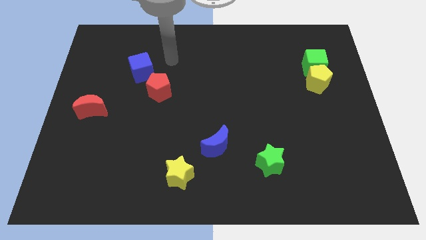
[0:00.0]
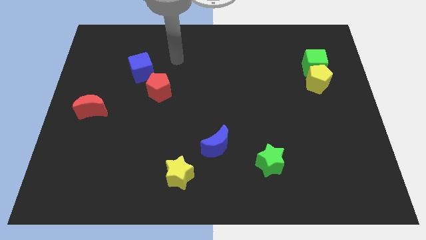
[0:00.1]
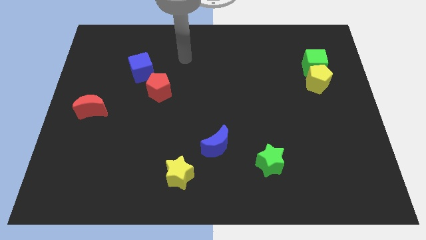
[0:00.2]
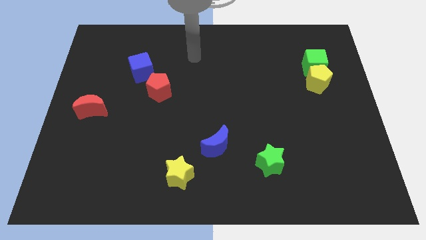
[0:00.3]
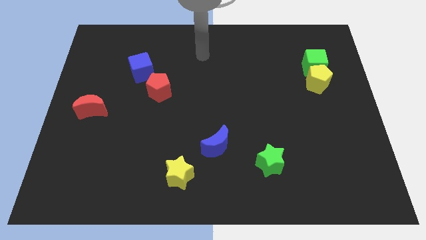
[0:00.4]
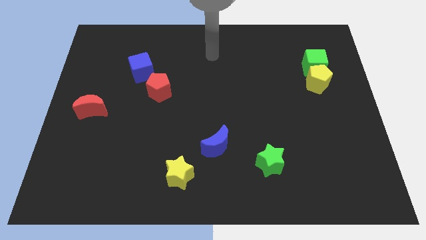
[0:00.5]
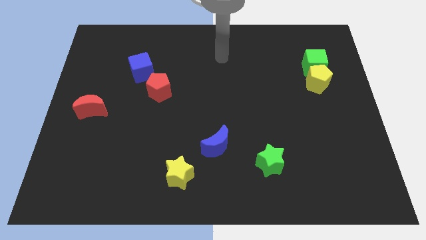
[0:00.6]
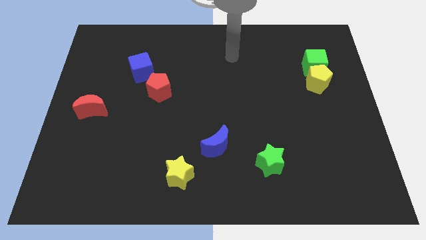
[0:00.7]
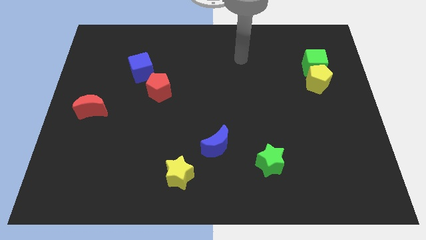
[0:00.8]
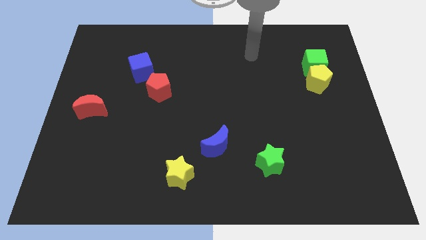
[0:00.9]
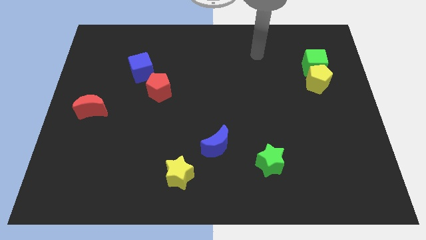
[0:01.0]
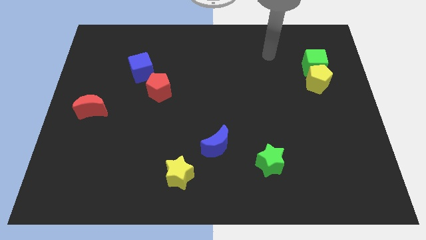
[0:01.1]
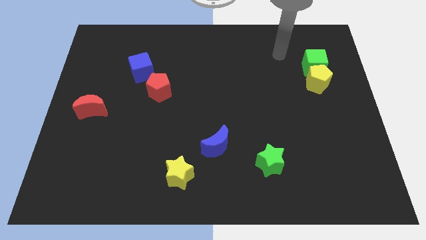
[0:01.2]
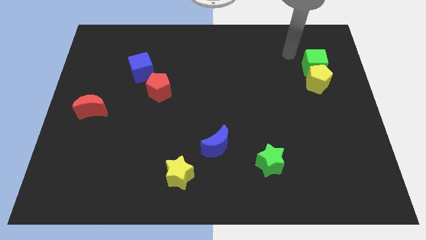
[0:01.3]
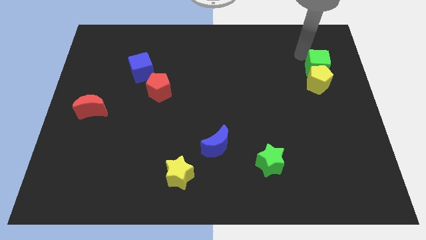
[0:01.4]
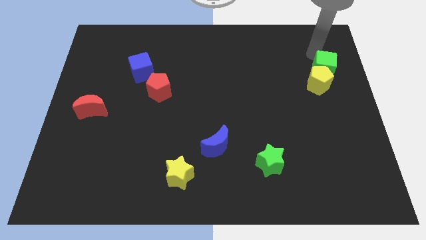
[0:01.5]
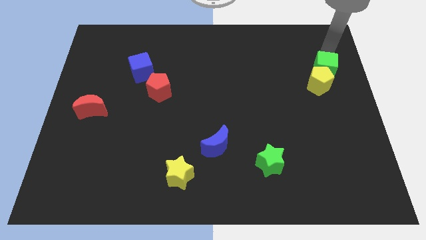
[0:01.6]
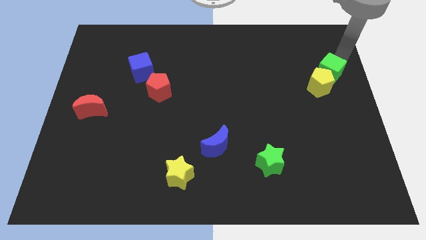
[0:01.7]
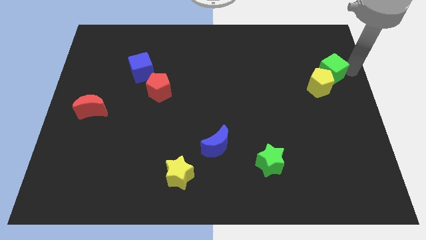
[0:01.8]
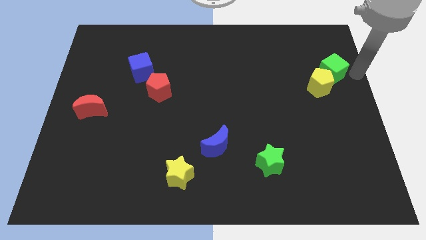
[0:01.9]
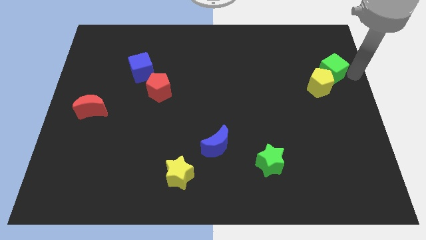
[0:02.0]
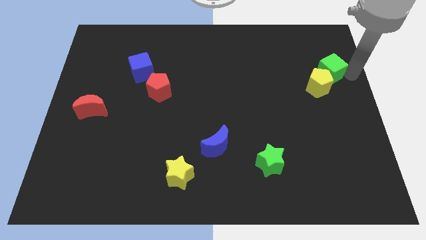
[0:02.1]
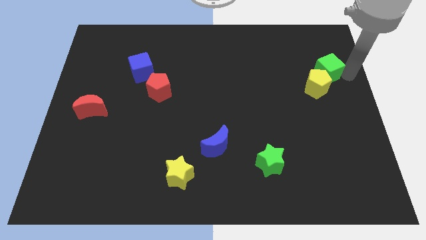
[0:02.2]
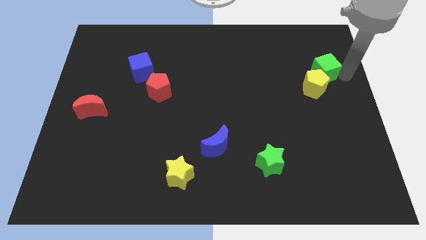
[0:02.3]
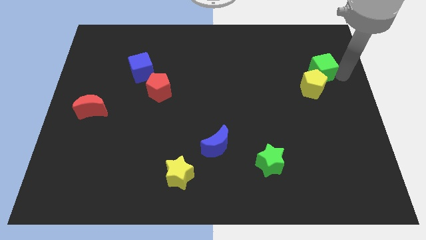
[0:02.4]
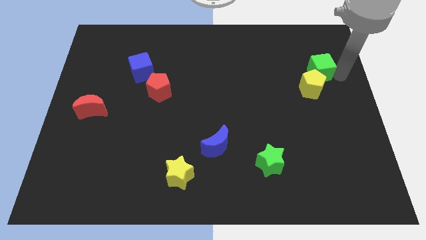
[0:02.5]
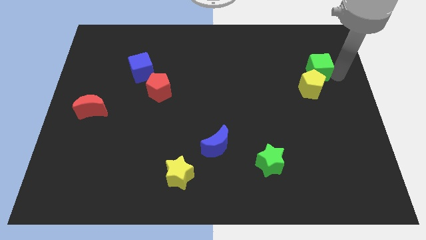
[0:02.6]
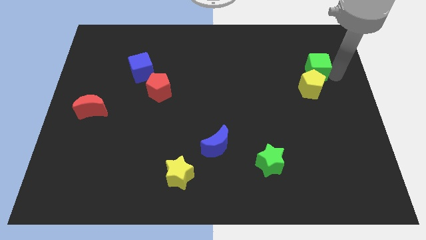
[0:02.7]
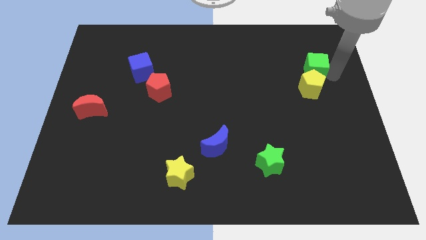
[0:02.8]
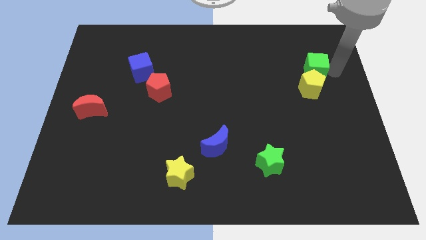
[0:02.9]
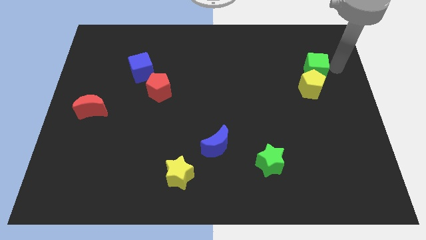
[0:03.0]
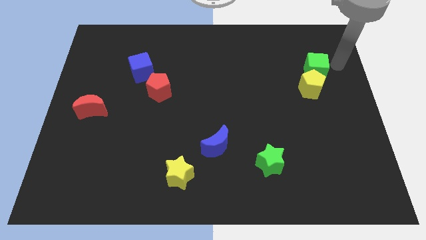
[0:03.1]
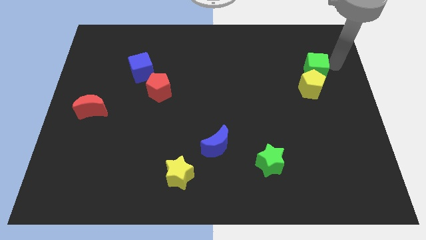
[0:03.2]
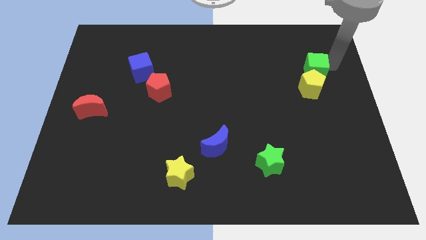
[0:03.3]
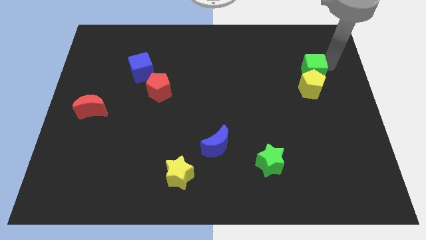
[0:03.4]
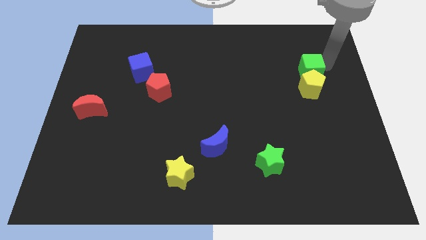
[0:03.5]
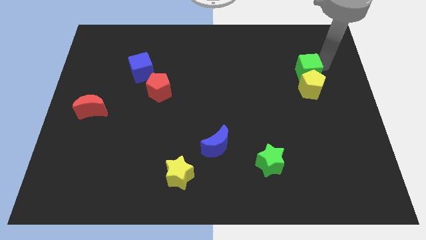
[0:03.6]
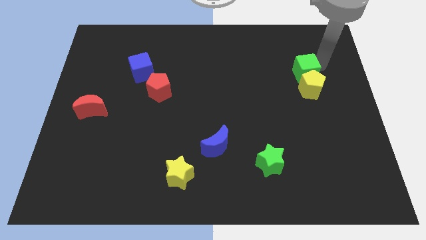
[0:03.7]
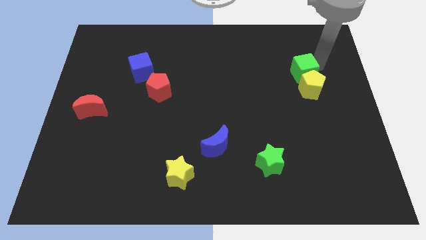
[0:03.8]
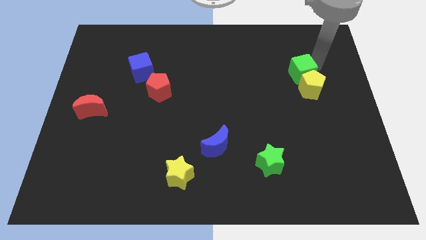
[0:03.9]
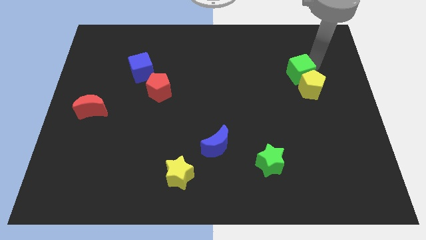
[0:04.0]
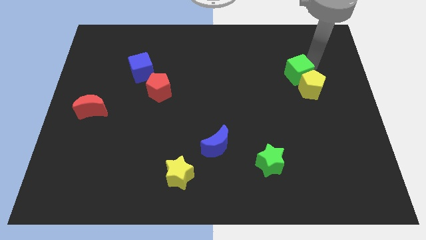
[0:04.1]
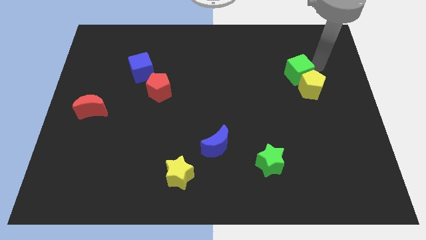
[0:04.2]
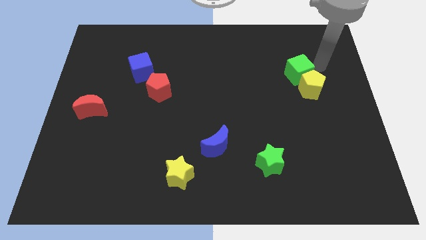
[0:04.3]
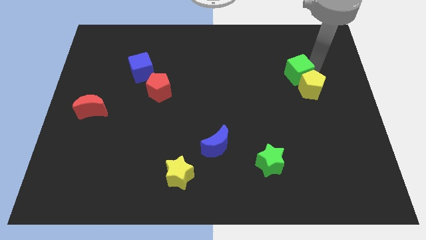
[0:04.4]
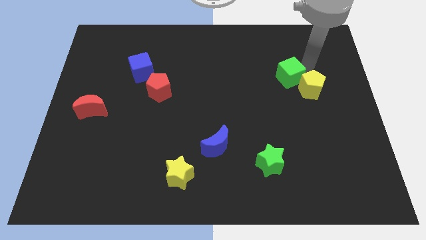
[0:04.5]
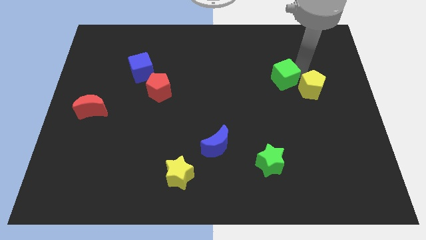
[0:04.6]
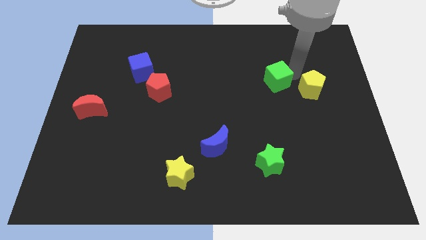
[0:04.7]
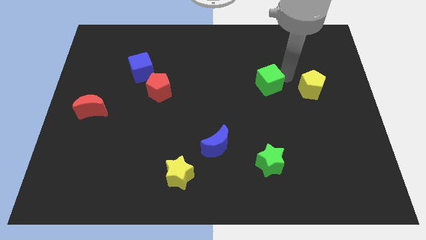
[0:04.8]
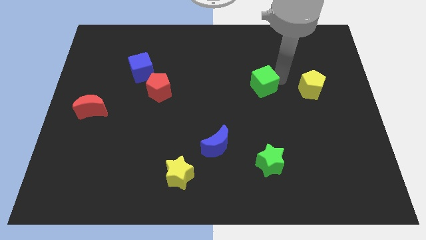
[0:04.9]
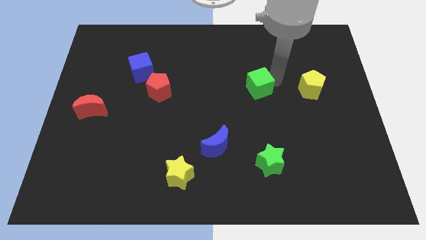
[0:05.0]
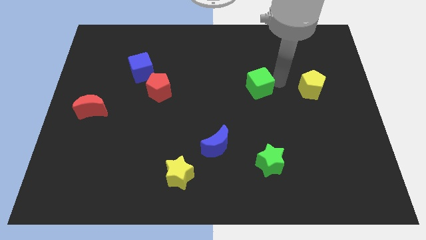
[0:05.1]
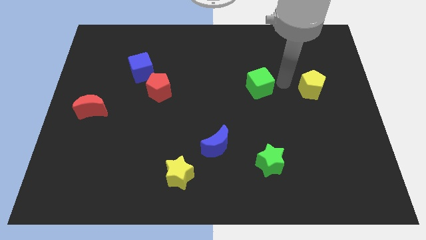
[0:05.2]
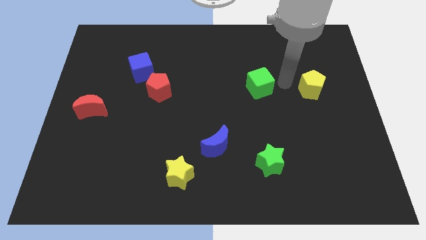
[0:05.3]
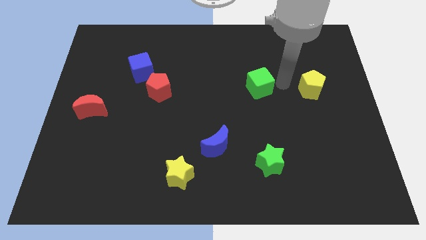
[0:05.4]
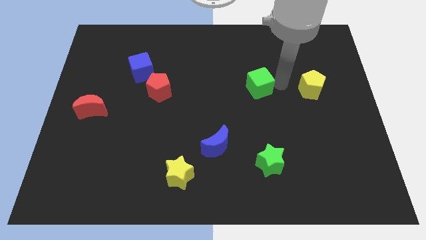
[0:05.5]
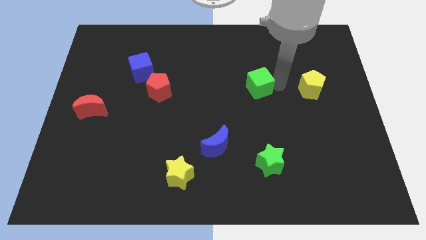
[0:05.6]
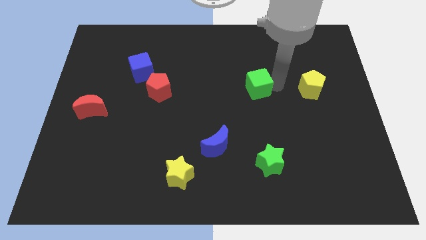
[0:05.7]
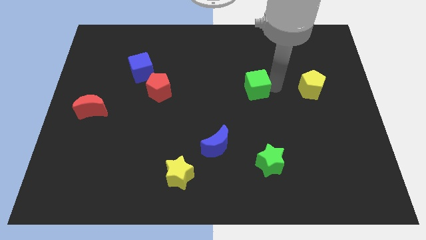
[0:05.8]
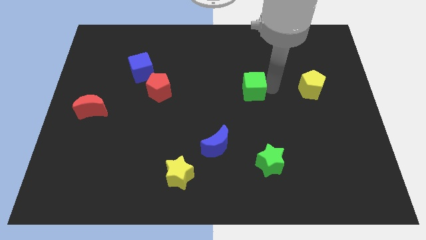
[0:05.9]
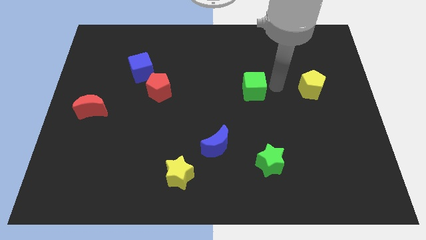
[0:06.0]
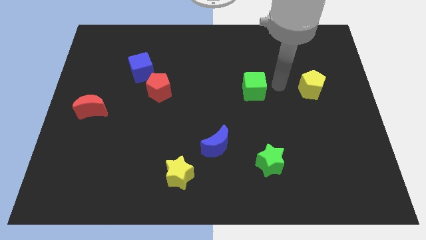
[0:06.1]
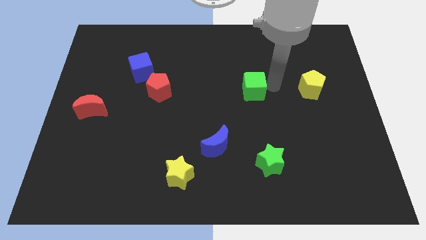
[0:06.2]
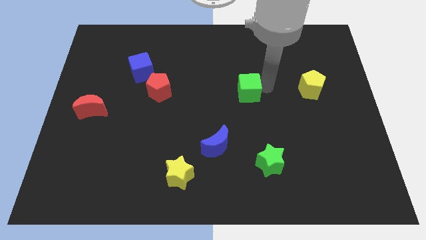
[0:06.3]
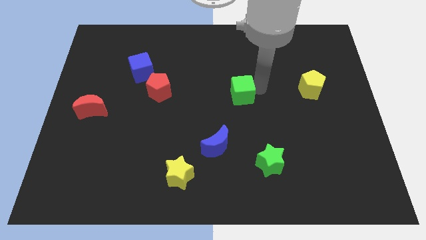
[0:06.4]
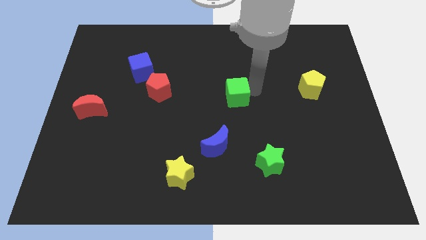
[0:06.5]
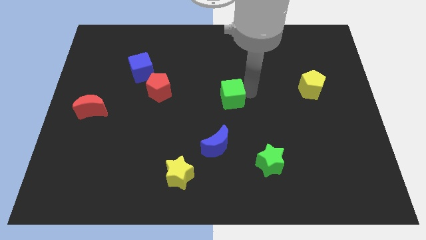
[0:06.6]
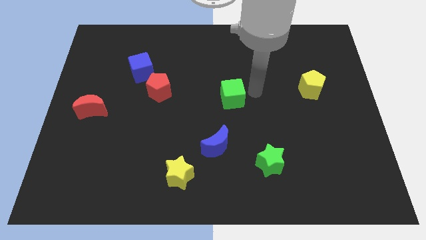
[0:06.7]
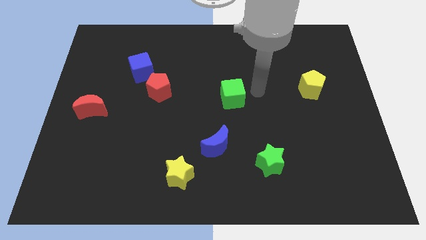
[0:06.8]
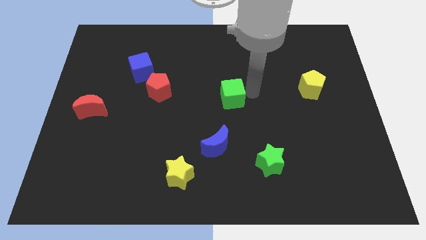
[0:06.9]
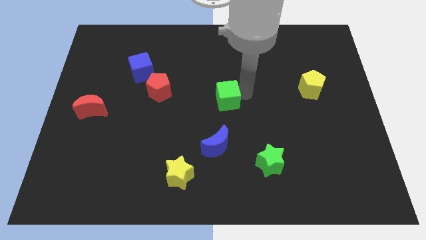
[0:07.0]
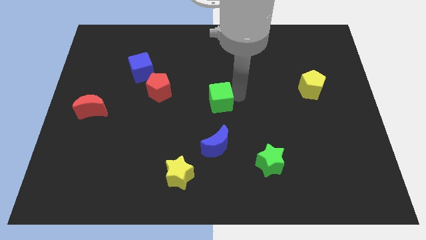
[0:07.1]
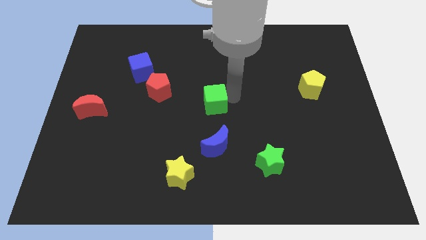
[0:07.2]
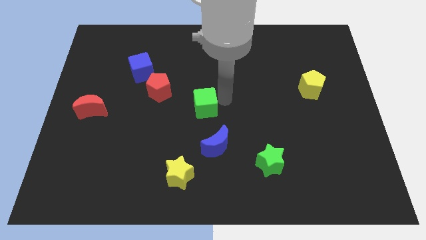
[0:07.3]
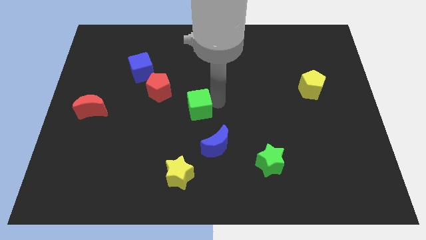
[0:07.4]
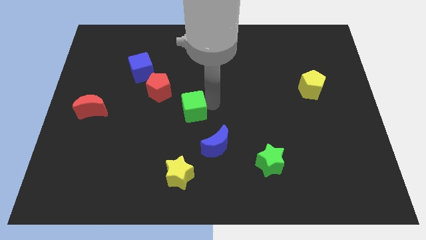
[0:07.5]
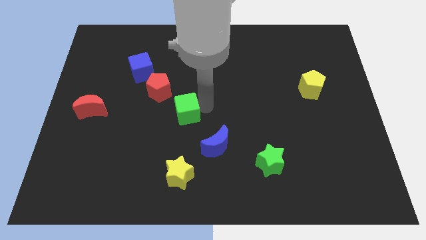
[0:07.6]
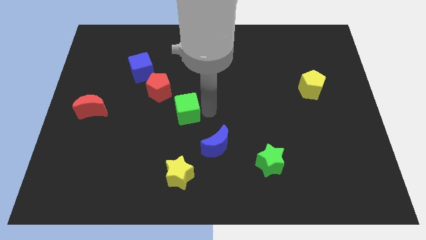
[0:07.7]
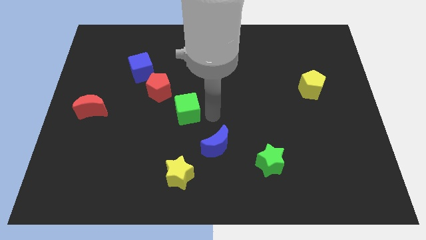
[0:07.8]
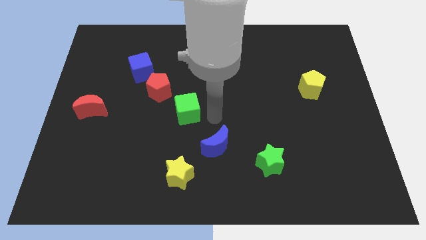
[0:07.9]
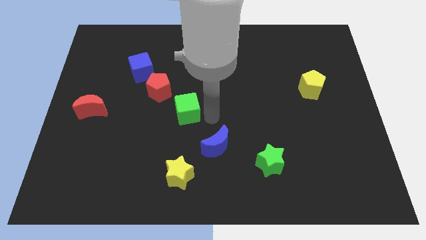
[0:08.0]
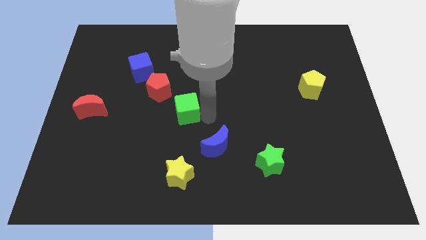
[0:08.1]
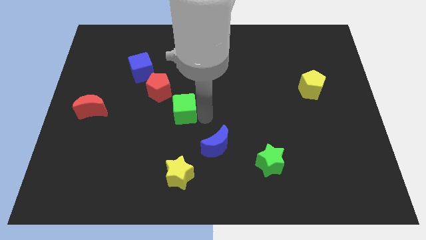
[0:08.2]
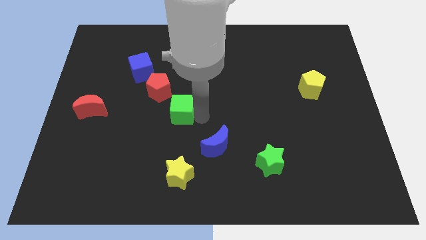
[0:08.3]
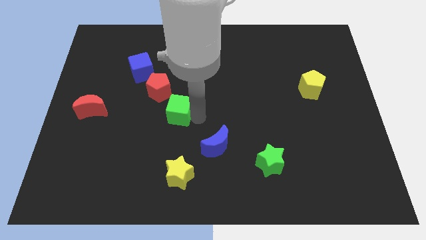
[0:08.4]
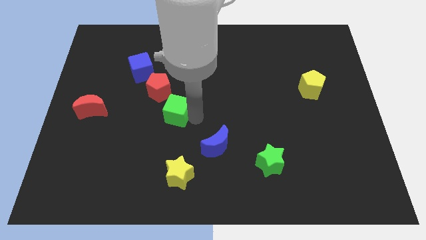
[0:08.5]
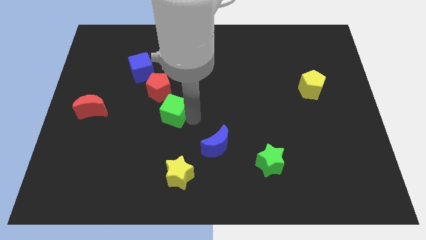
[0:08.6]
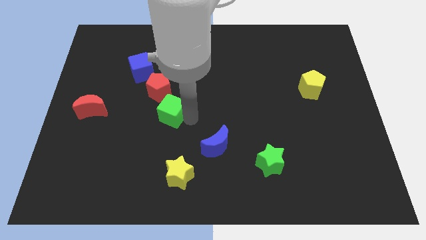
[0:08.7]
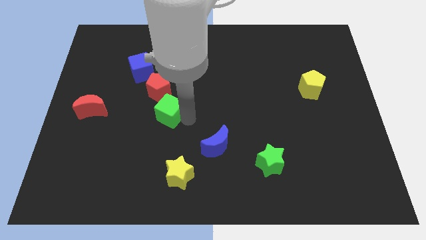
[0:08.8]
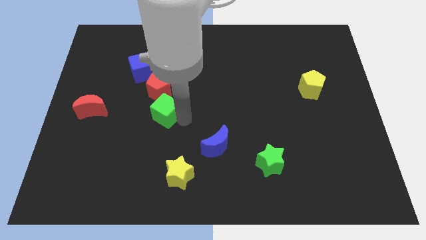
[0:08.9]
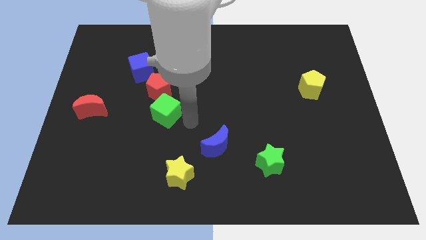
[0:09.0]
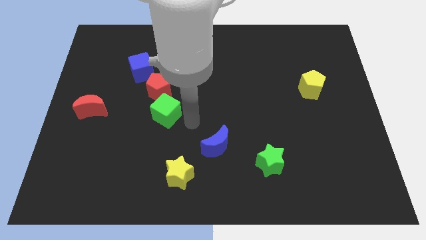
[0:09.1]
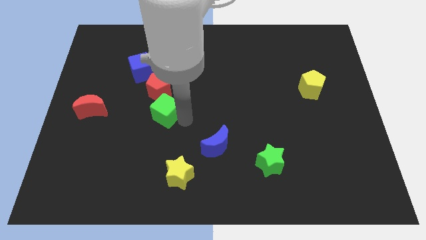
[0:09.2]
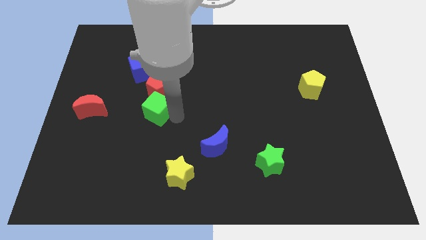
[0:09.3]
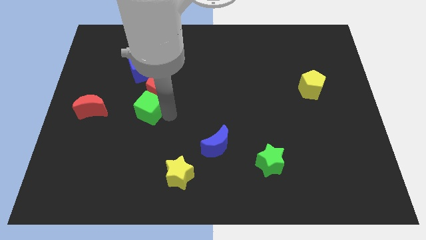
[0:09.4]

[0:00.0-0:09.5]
put the green cube to the bottom side of the blue cube
